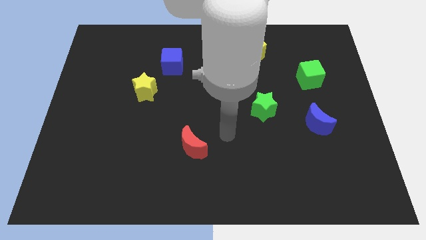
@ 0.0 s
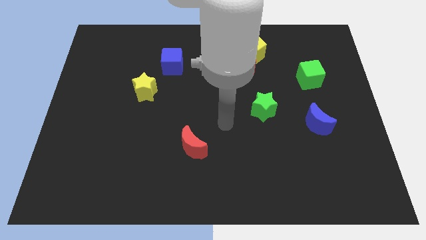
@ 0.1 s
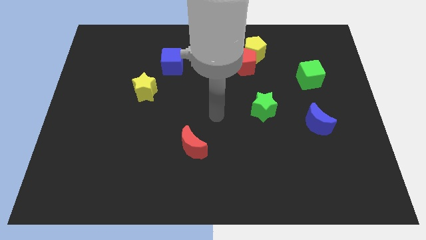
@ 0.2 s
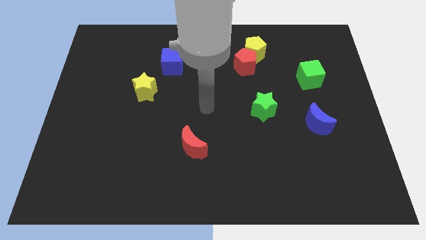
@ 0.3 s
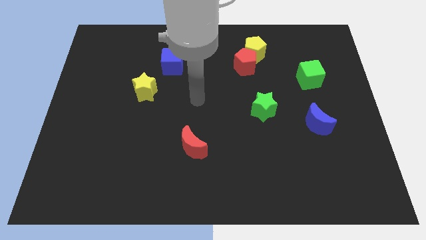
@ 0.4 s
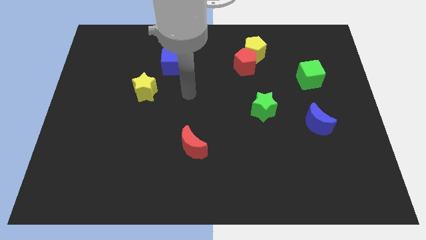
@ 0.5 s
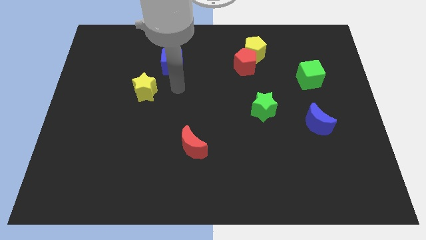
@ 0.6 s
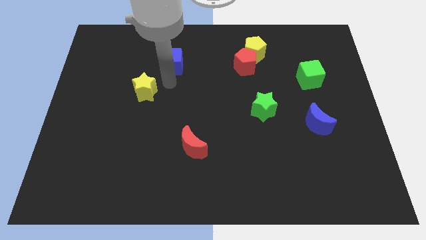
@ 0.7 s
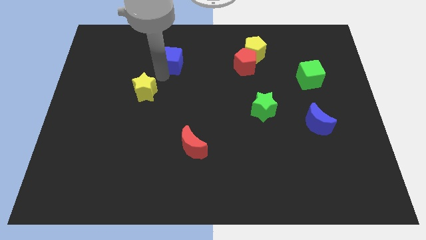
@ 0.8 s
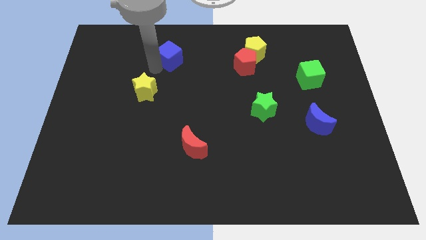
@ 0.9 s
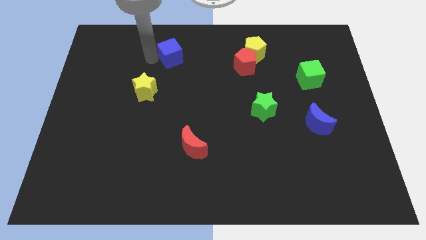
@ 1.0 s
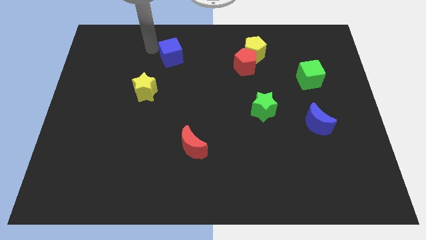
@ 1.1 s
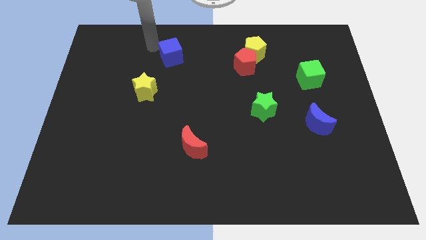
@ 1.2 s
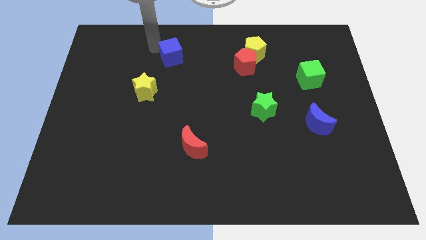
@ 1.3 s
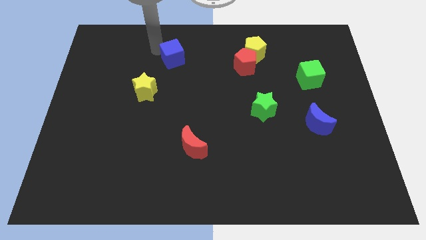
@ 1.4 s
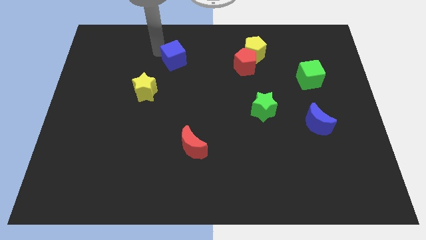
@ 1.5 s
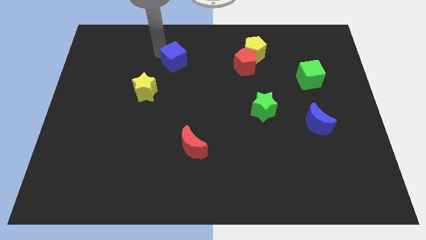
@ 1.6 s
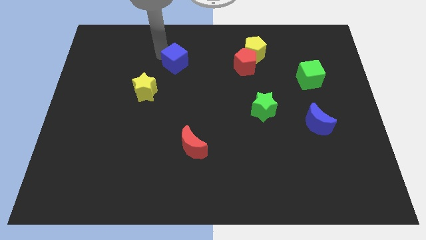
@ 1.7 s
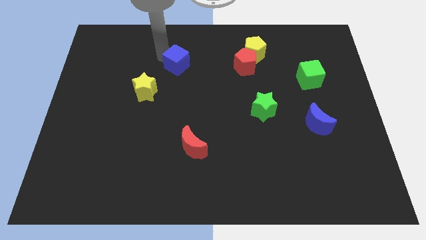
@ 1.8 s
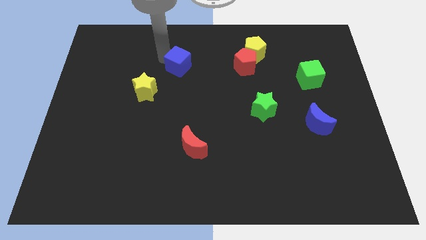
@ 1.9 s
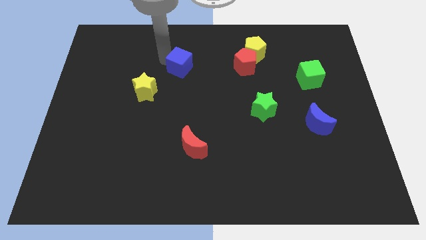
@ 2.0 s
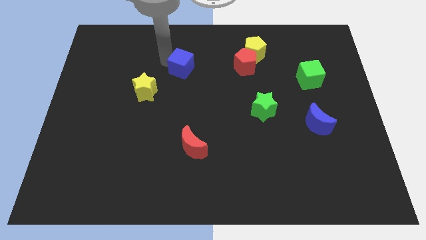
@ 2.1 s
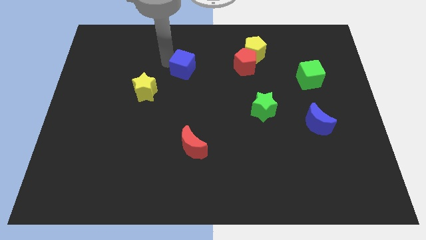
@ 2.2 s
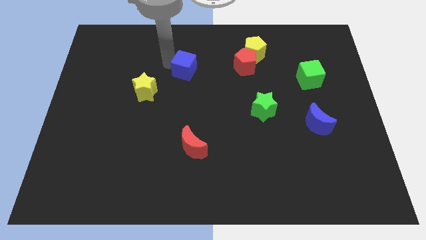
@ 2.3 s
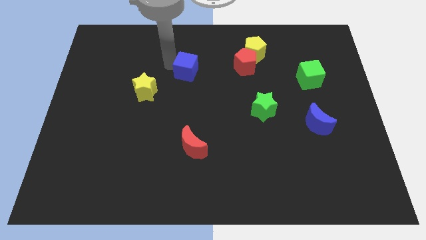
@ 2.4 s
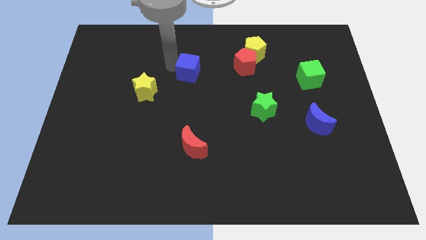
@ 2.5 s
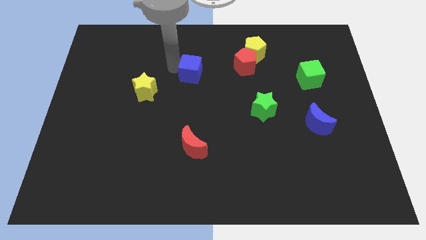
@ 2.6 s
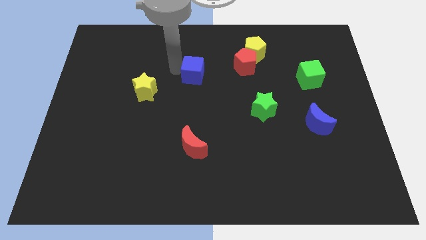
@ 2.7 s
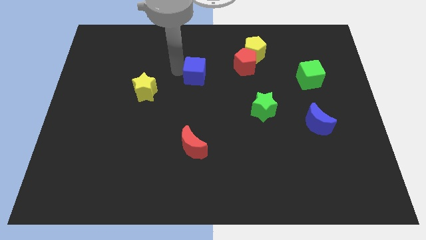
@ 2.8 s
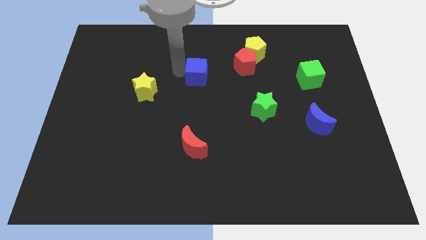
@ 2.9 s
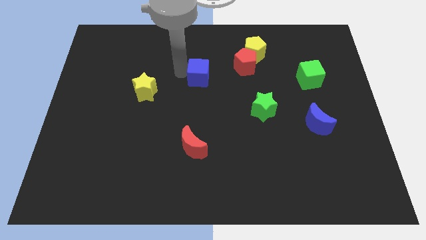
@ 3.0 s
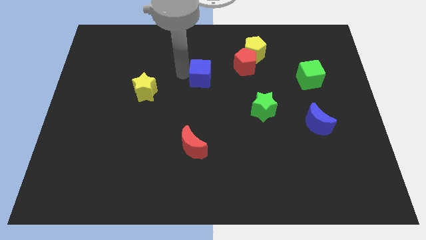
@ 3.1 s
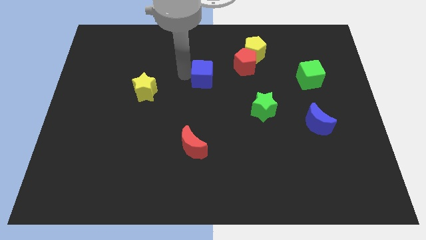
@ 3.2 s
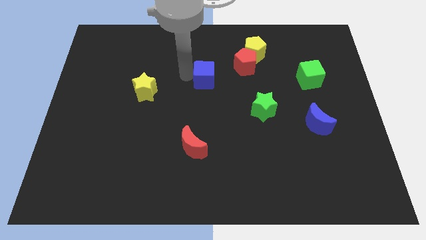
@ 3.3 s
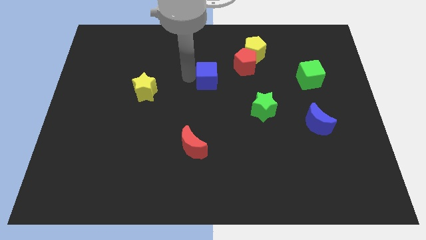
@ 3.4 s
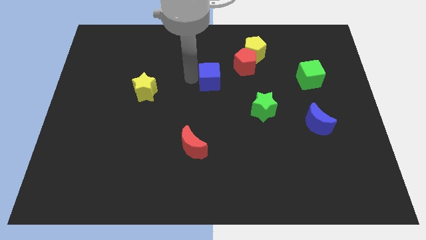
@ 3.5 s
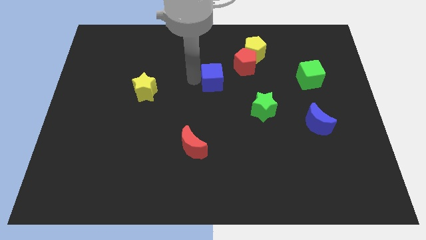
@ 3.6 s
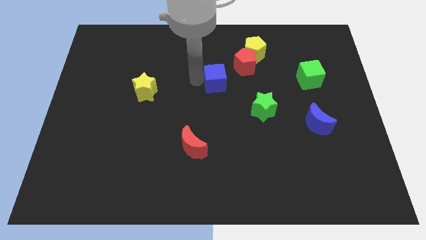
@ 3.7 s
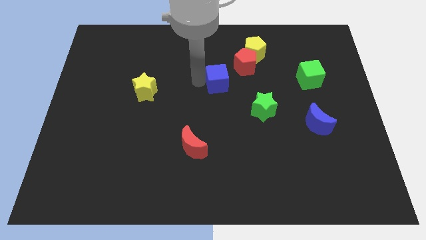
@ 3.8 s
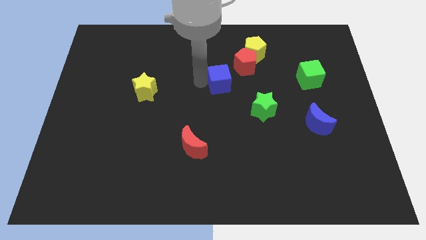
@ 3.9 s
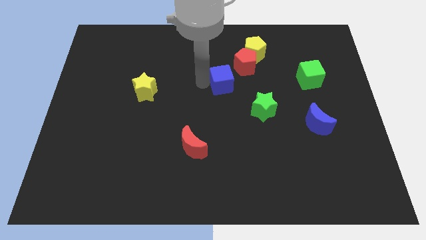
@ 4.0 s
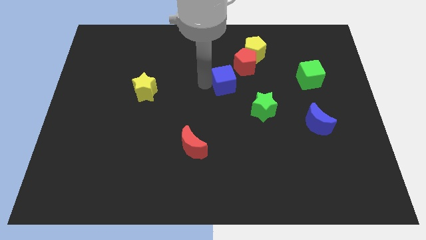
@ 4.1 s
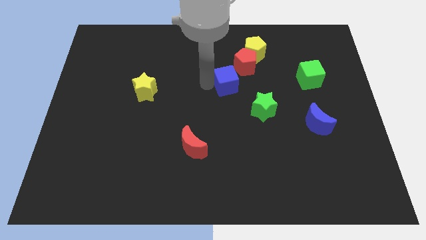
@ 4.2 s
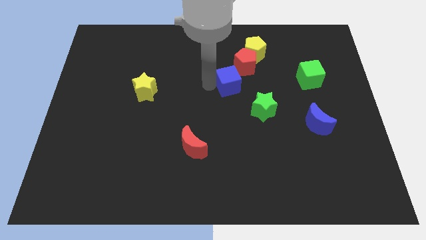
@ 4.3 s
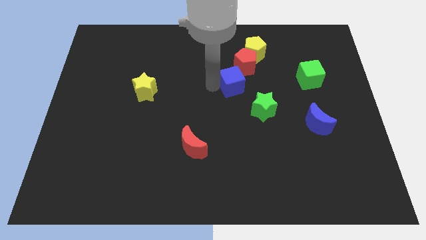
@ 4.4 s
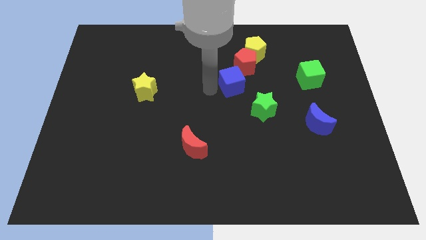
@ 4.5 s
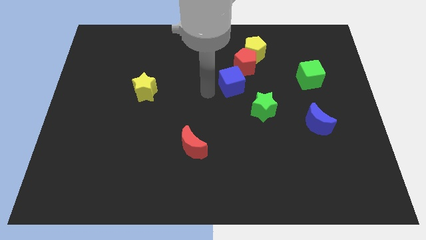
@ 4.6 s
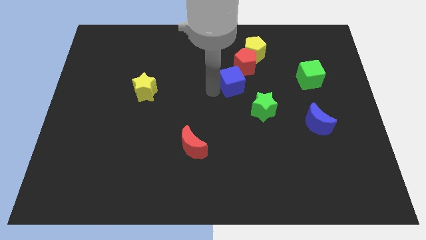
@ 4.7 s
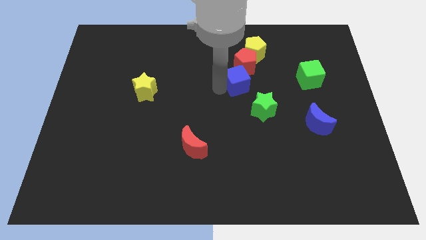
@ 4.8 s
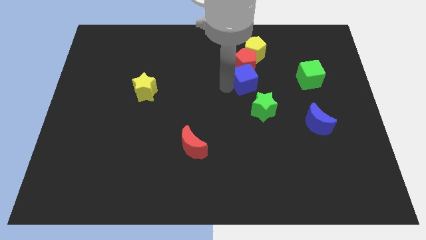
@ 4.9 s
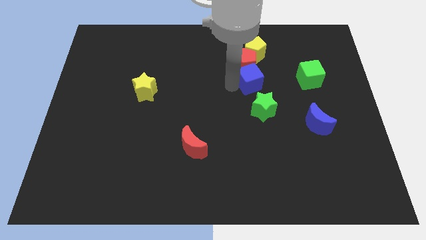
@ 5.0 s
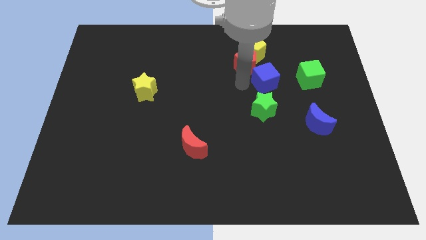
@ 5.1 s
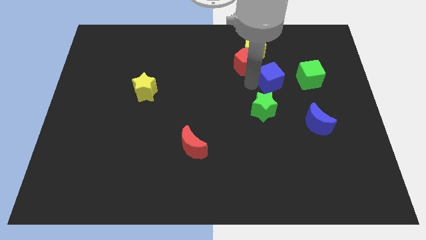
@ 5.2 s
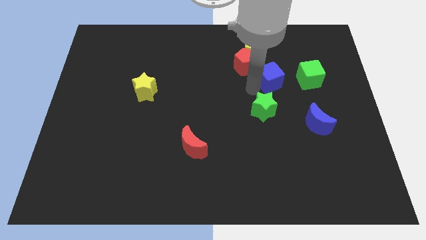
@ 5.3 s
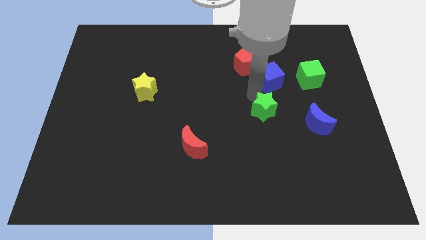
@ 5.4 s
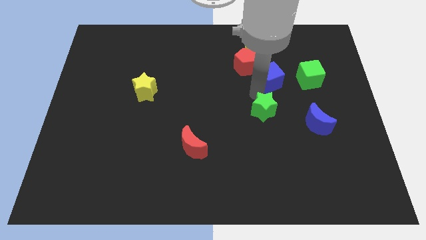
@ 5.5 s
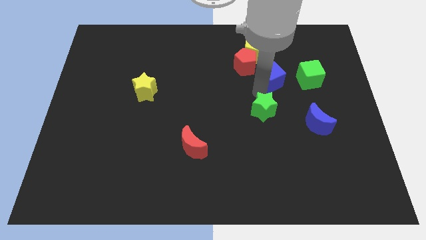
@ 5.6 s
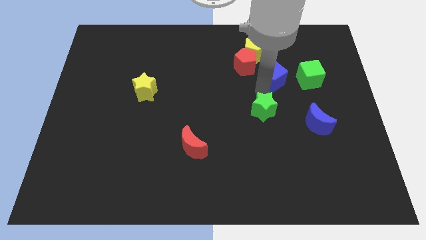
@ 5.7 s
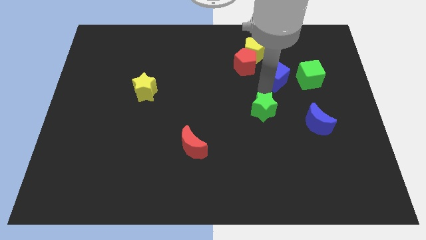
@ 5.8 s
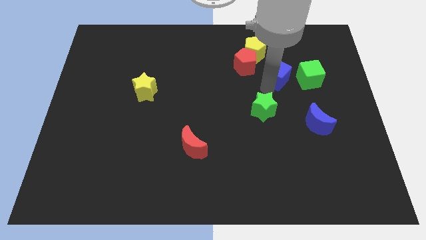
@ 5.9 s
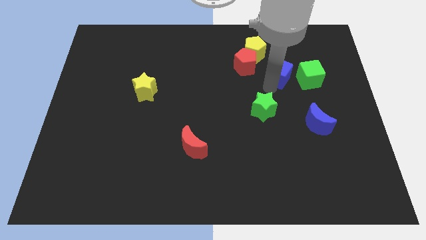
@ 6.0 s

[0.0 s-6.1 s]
move the blue cube to the top left of the green cube

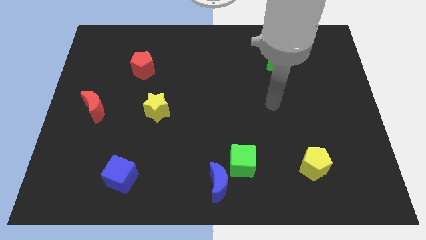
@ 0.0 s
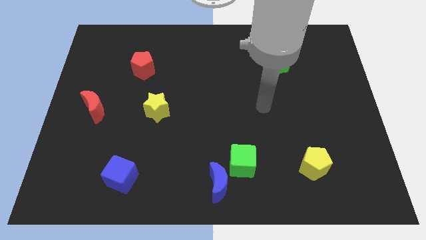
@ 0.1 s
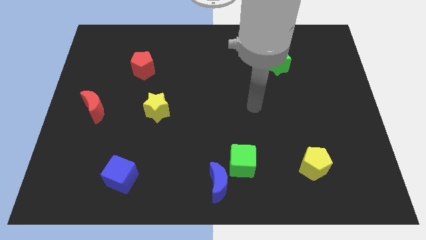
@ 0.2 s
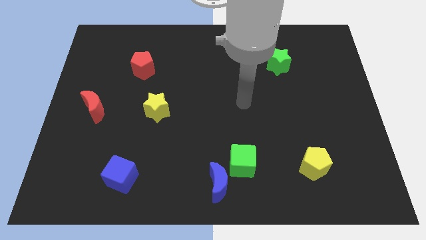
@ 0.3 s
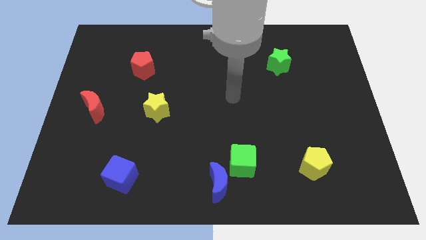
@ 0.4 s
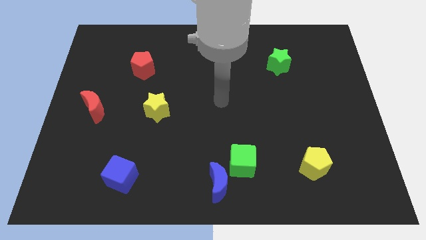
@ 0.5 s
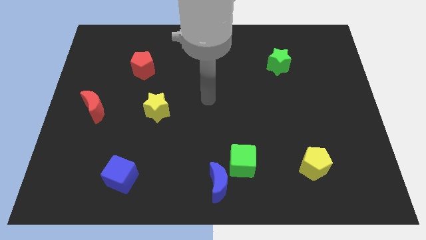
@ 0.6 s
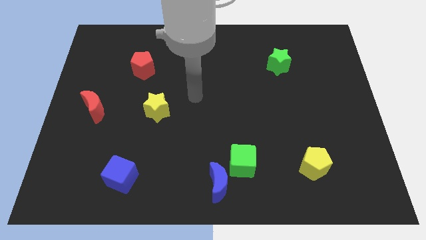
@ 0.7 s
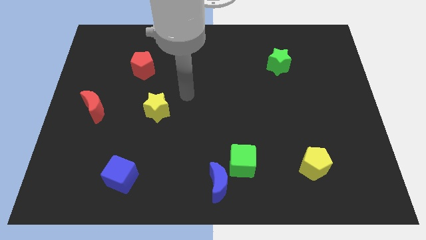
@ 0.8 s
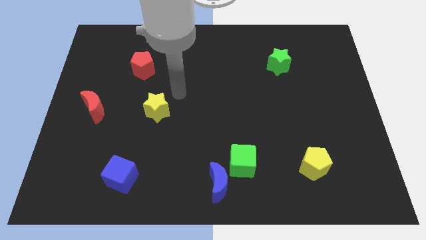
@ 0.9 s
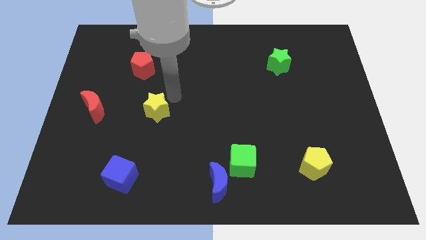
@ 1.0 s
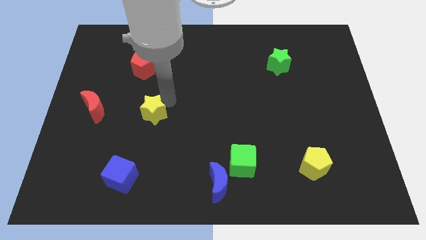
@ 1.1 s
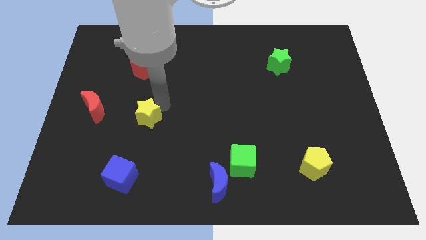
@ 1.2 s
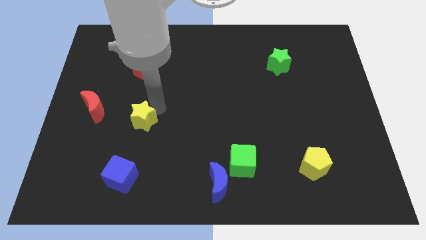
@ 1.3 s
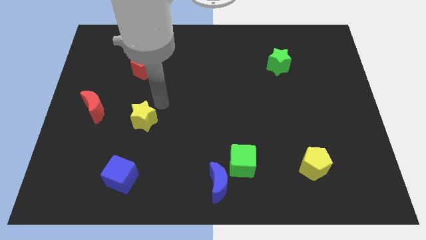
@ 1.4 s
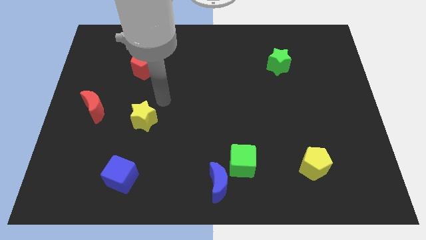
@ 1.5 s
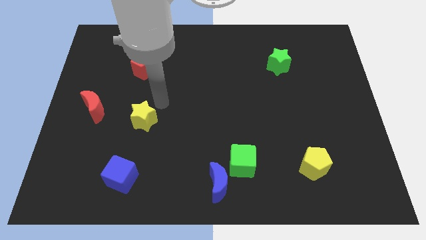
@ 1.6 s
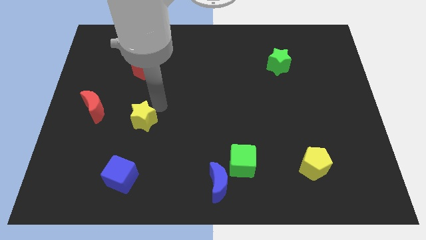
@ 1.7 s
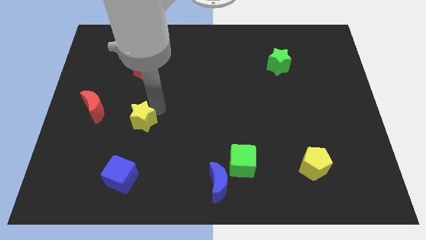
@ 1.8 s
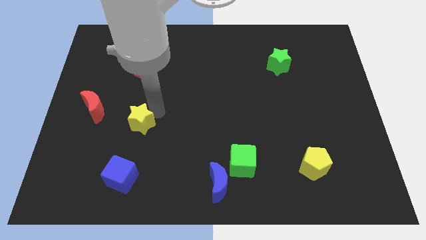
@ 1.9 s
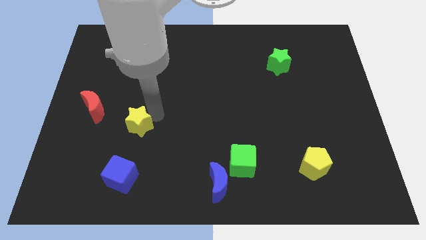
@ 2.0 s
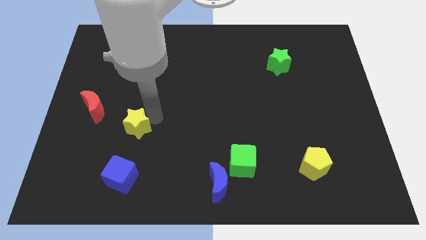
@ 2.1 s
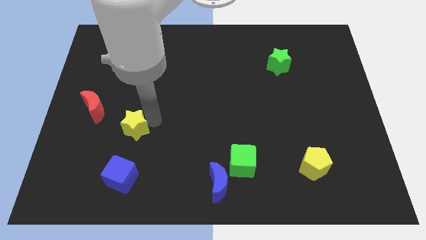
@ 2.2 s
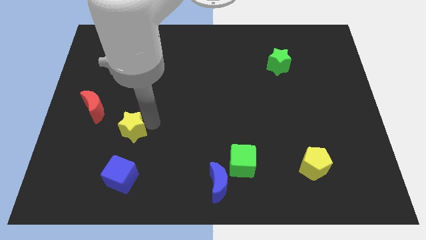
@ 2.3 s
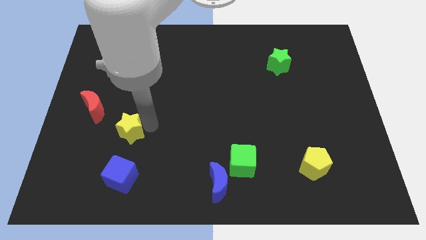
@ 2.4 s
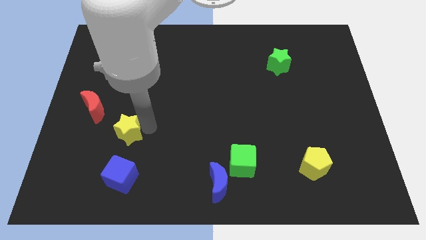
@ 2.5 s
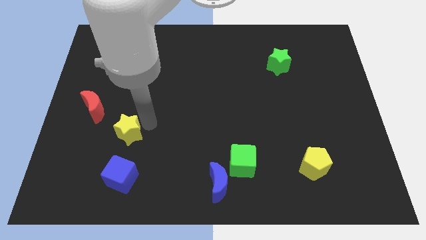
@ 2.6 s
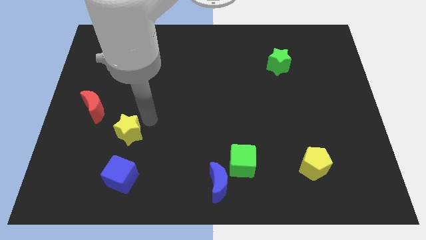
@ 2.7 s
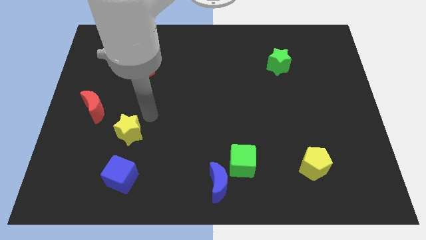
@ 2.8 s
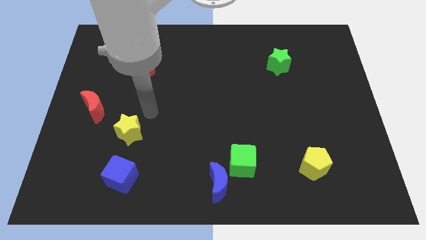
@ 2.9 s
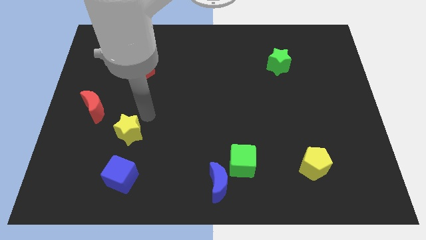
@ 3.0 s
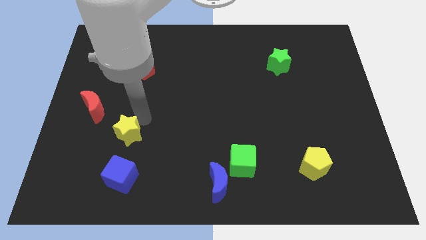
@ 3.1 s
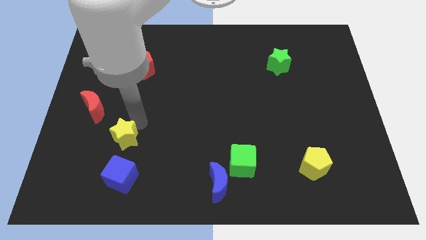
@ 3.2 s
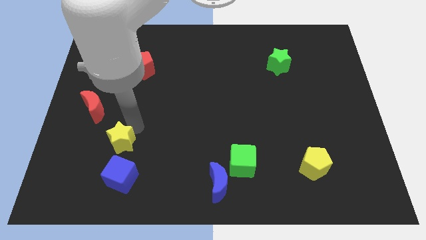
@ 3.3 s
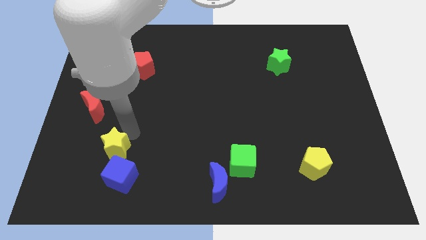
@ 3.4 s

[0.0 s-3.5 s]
slide the yellow star to the top left side of the blue cube
